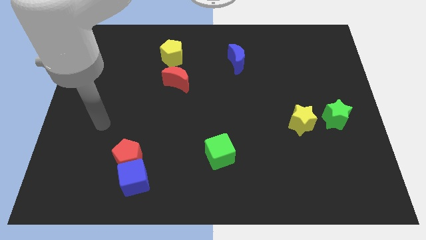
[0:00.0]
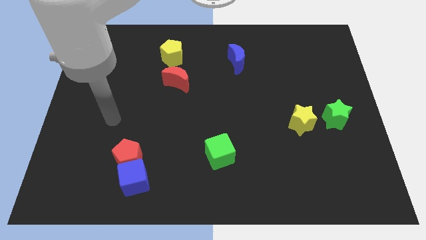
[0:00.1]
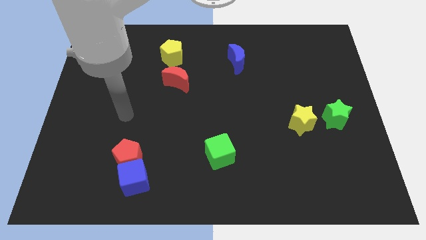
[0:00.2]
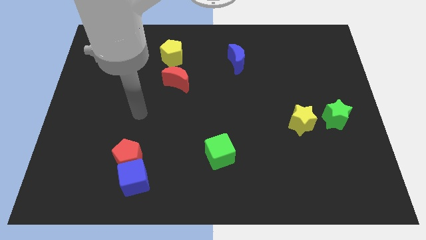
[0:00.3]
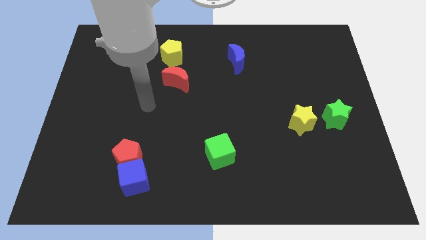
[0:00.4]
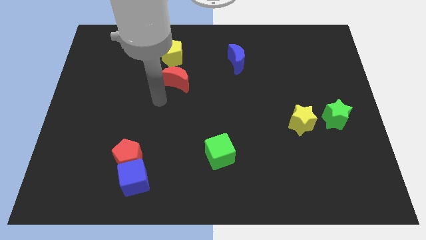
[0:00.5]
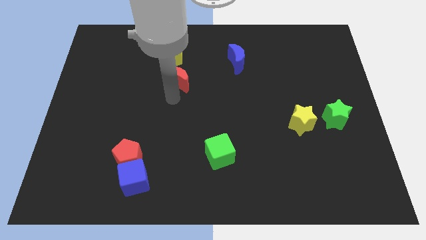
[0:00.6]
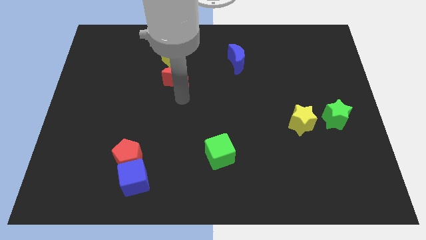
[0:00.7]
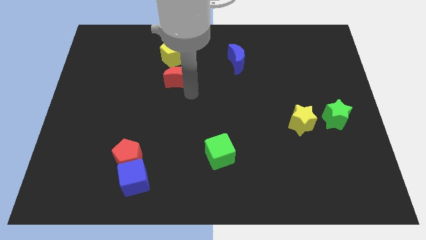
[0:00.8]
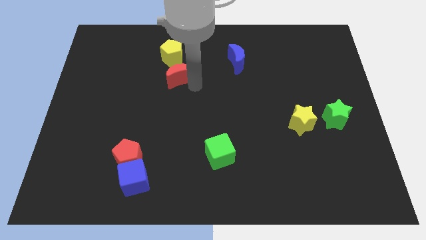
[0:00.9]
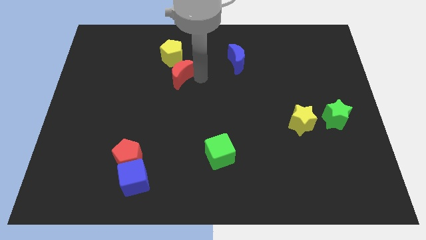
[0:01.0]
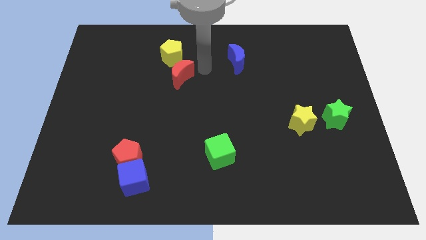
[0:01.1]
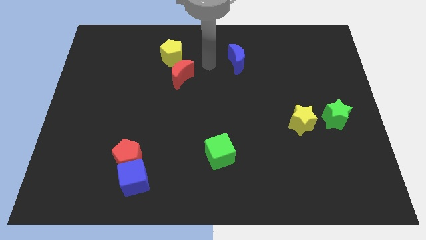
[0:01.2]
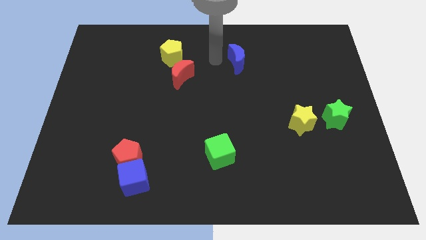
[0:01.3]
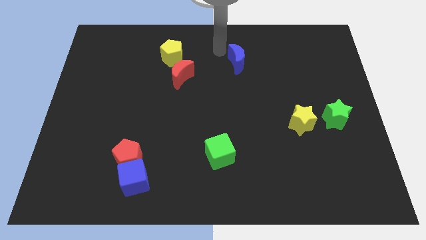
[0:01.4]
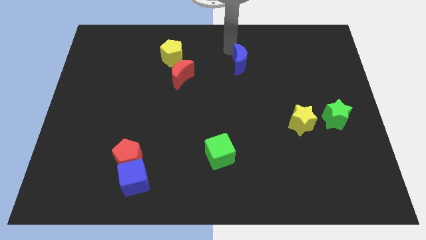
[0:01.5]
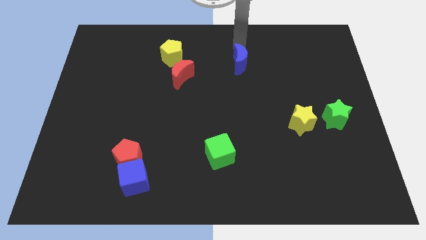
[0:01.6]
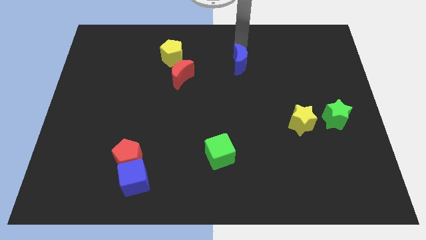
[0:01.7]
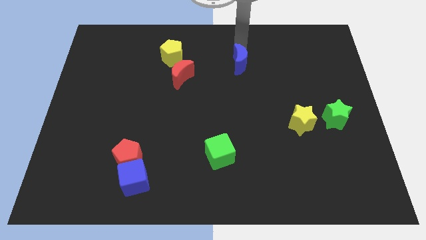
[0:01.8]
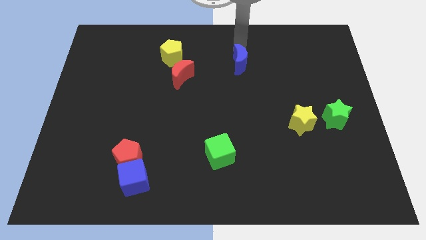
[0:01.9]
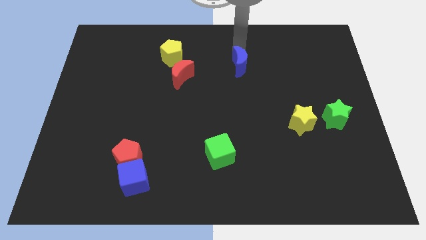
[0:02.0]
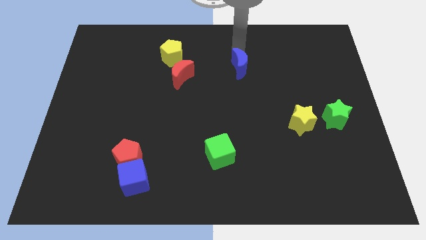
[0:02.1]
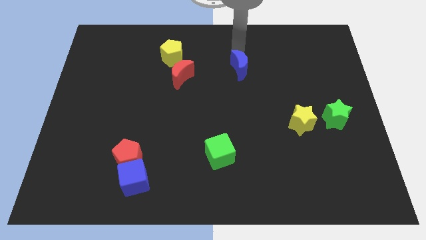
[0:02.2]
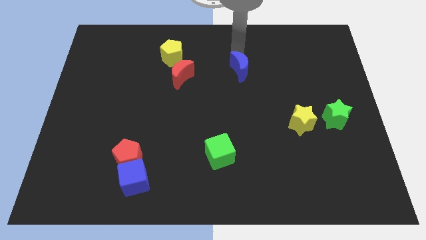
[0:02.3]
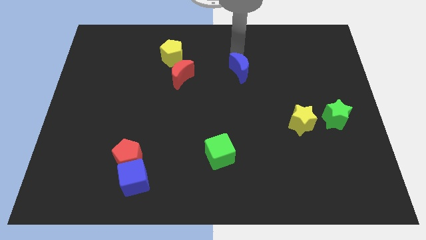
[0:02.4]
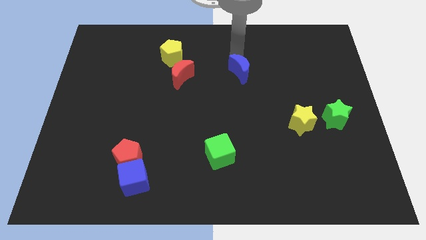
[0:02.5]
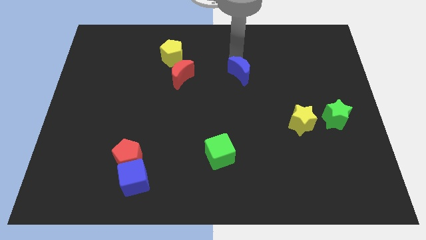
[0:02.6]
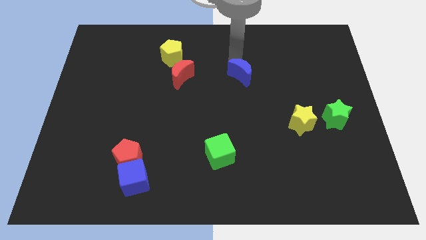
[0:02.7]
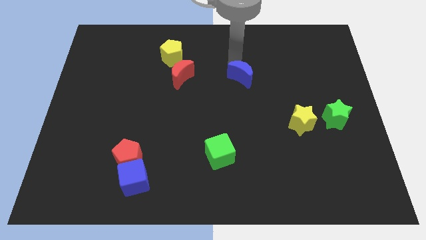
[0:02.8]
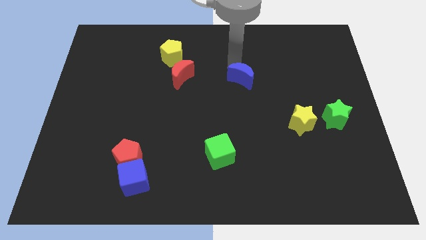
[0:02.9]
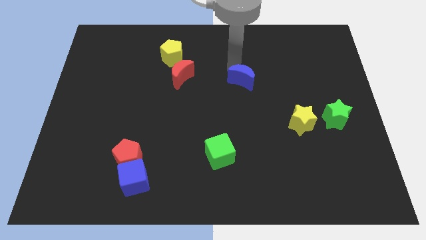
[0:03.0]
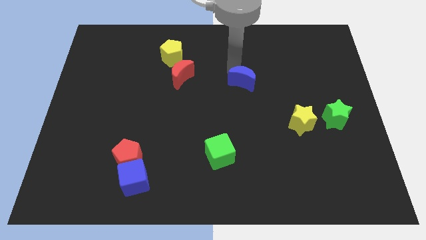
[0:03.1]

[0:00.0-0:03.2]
move the blue moon slightly down

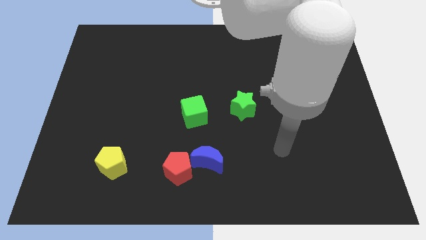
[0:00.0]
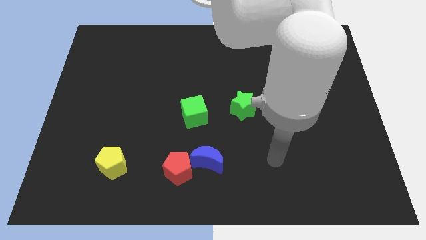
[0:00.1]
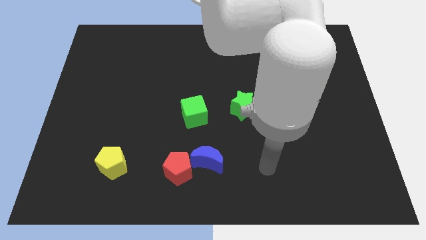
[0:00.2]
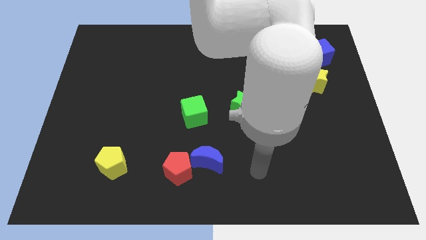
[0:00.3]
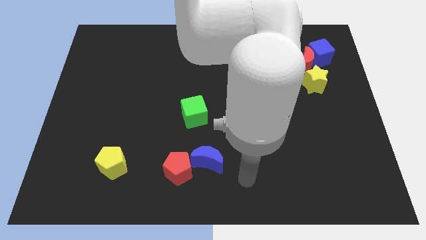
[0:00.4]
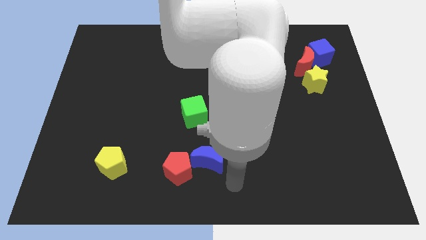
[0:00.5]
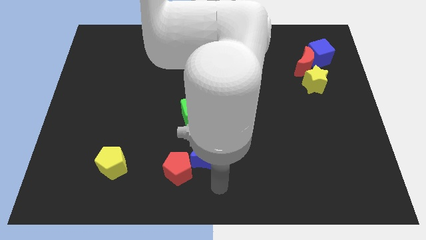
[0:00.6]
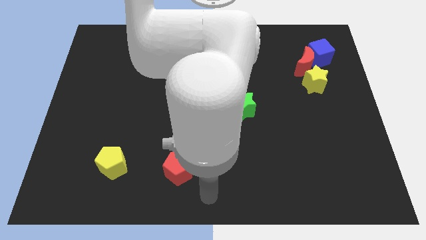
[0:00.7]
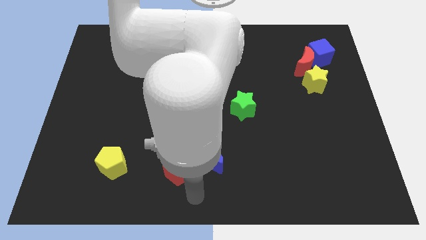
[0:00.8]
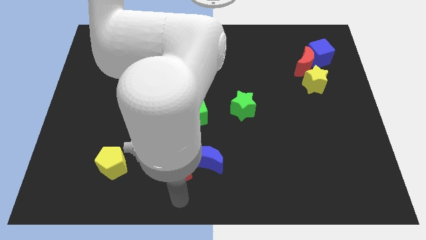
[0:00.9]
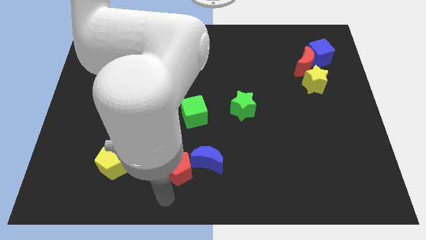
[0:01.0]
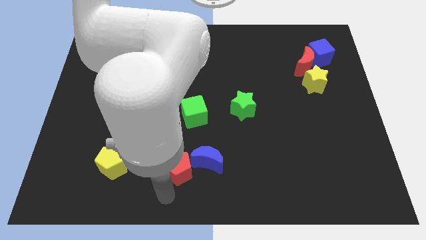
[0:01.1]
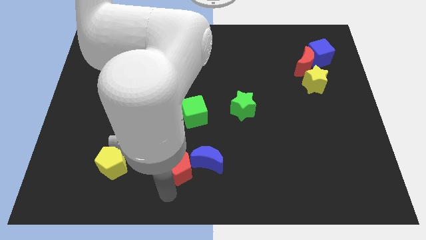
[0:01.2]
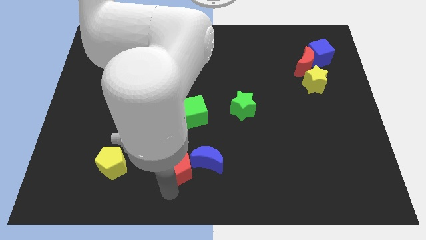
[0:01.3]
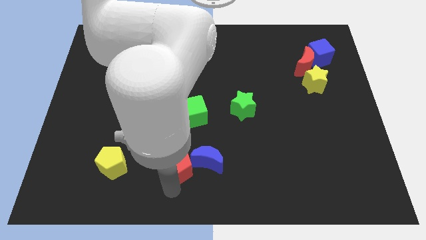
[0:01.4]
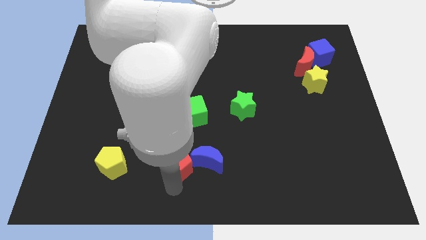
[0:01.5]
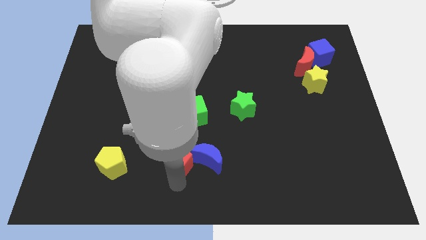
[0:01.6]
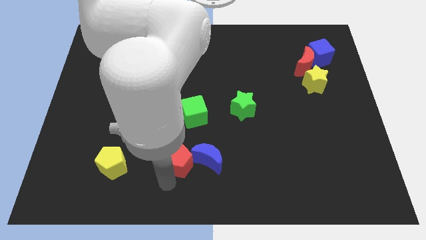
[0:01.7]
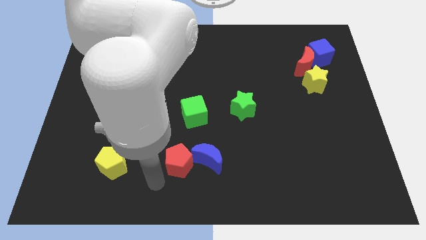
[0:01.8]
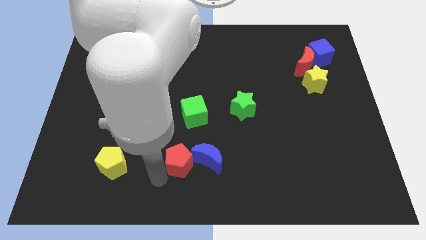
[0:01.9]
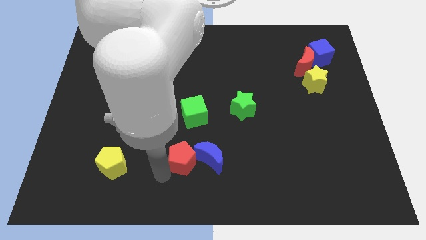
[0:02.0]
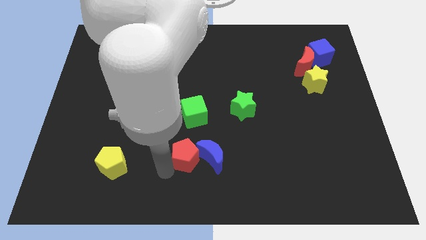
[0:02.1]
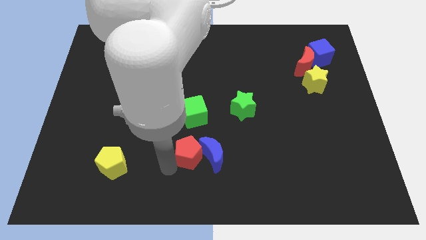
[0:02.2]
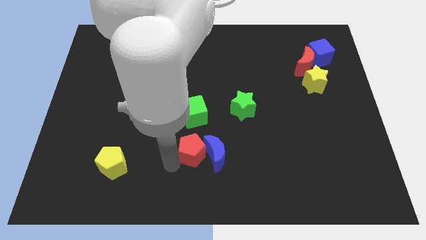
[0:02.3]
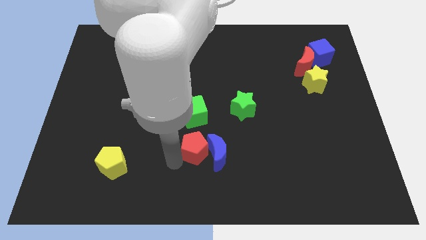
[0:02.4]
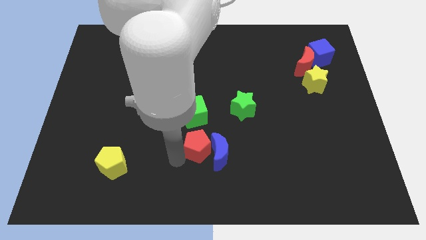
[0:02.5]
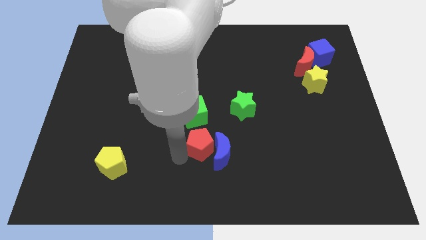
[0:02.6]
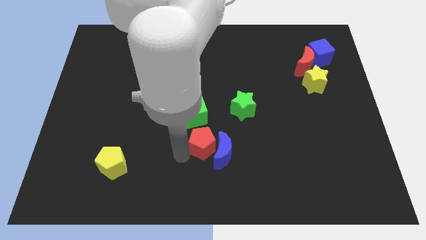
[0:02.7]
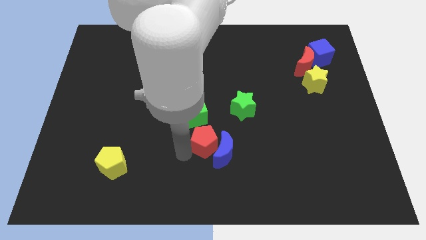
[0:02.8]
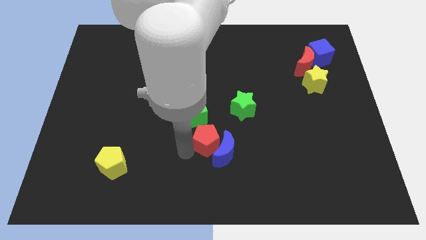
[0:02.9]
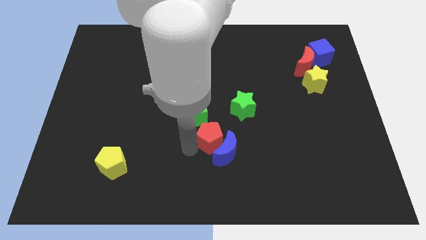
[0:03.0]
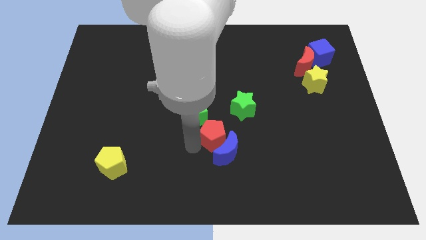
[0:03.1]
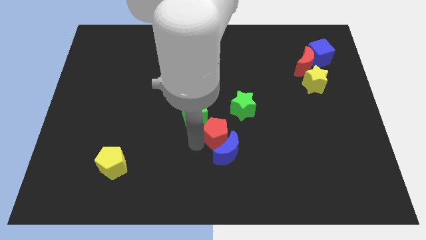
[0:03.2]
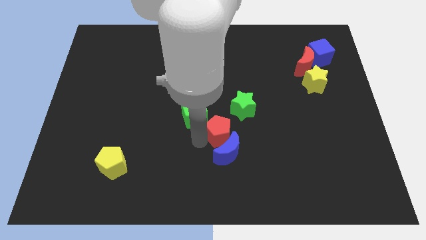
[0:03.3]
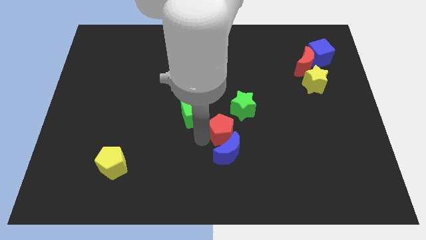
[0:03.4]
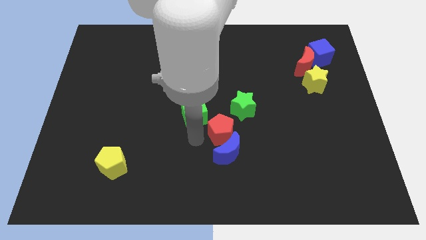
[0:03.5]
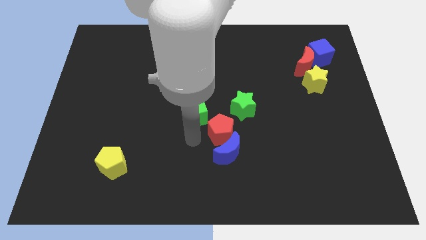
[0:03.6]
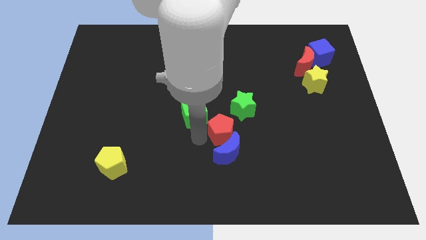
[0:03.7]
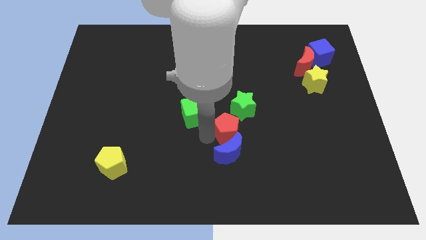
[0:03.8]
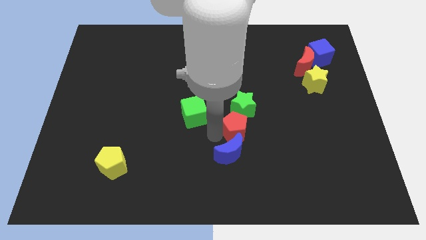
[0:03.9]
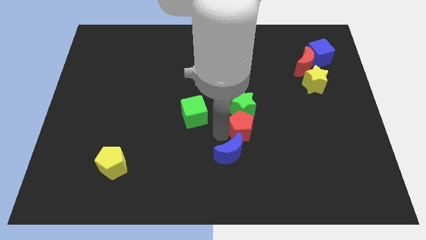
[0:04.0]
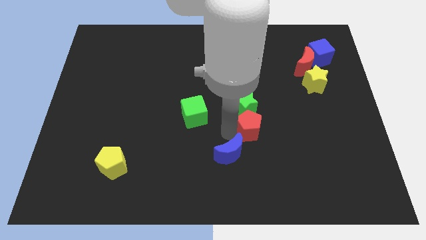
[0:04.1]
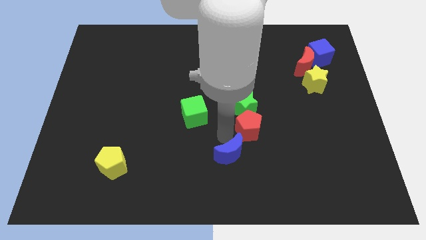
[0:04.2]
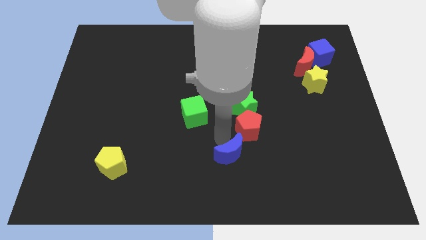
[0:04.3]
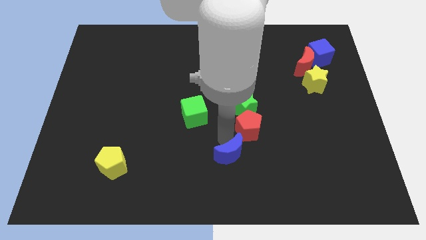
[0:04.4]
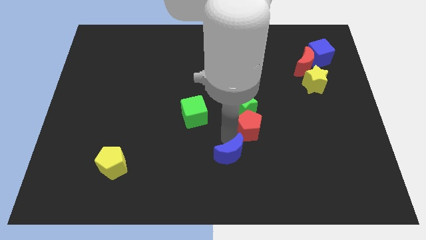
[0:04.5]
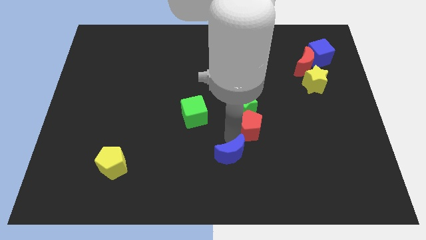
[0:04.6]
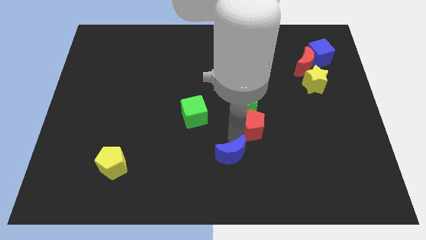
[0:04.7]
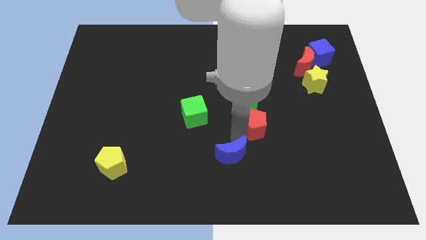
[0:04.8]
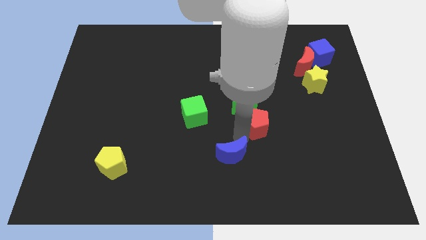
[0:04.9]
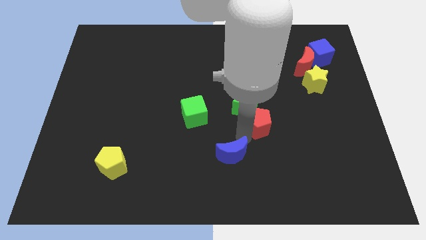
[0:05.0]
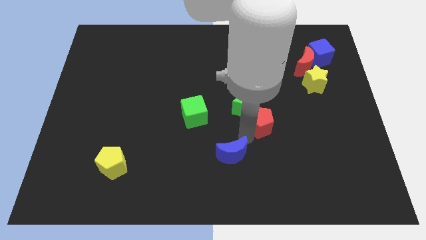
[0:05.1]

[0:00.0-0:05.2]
push the red pentagon up and then right

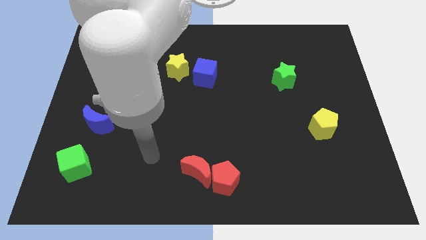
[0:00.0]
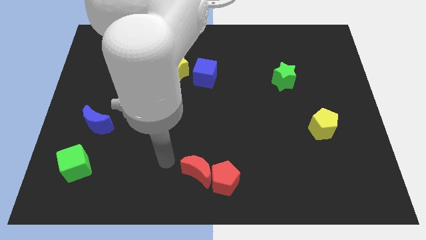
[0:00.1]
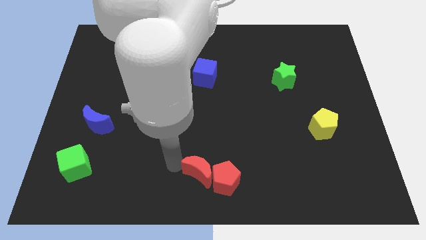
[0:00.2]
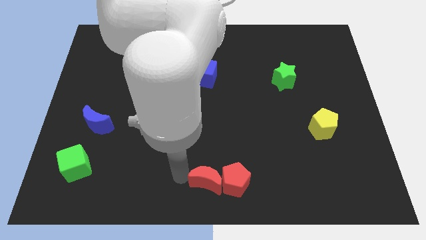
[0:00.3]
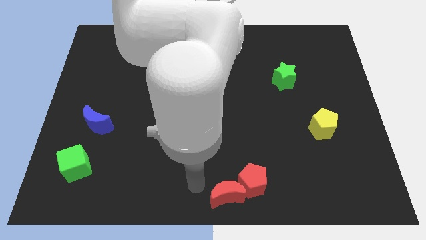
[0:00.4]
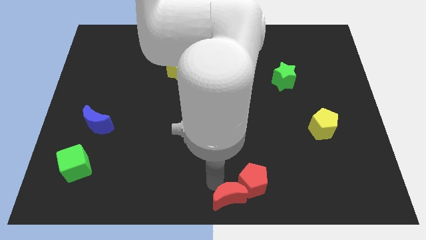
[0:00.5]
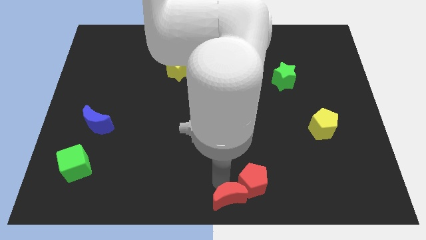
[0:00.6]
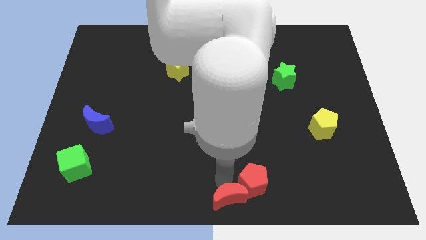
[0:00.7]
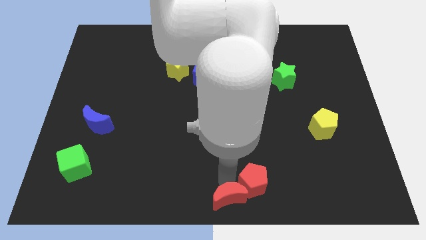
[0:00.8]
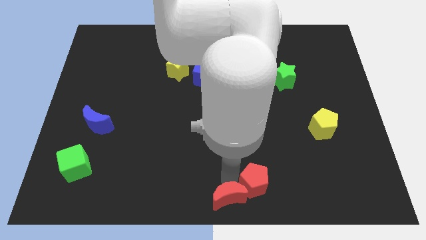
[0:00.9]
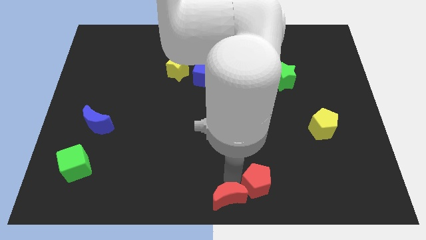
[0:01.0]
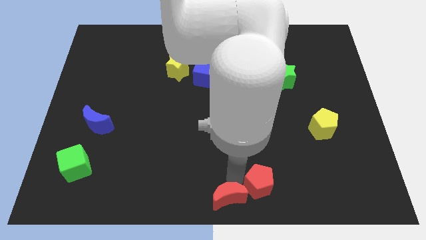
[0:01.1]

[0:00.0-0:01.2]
slightly move the red pentagon to the right
